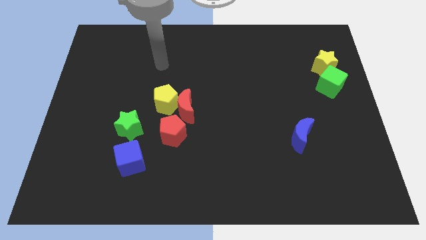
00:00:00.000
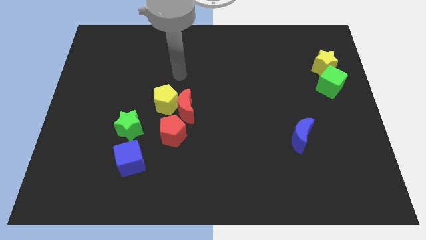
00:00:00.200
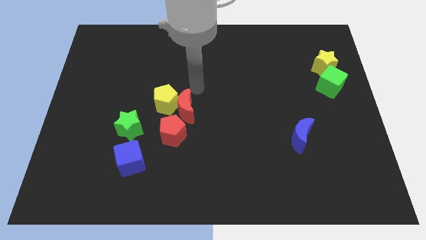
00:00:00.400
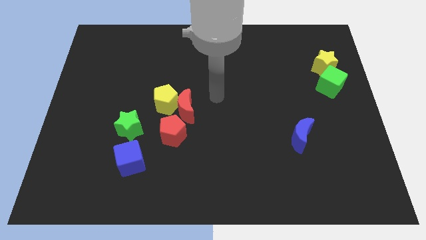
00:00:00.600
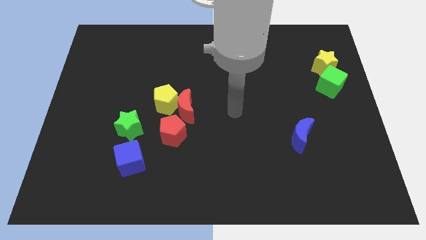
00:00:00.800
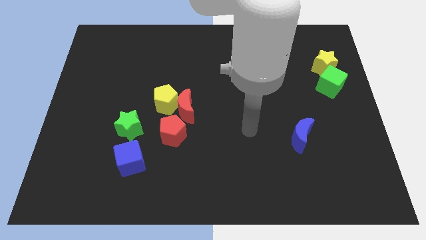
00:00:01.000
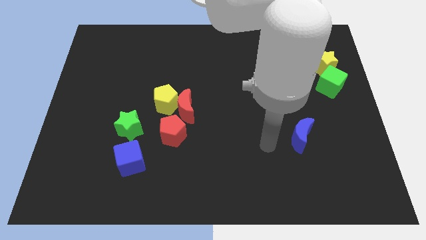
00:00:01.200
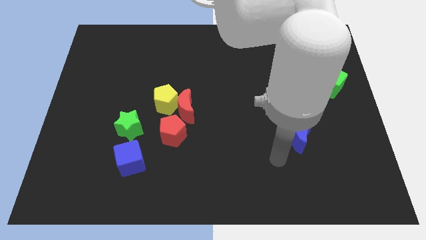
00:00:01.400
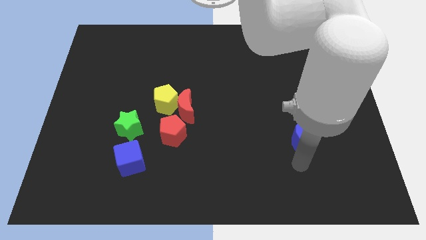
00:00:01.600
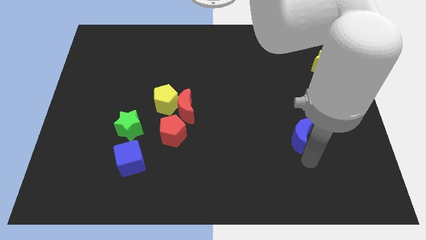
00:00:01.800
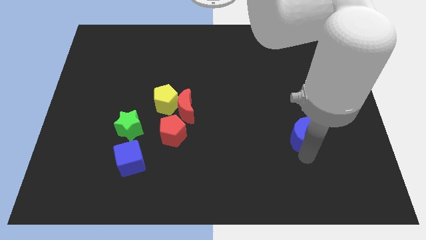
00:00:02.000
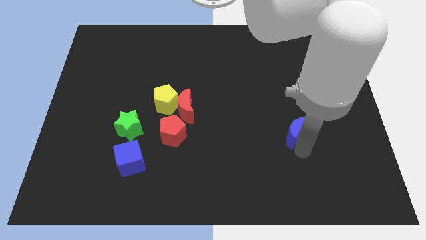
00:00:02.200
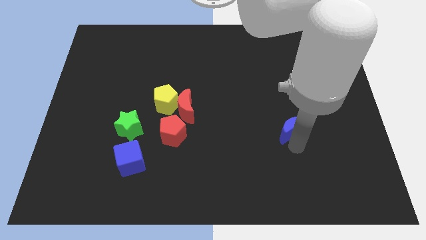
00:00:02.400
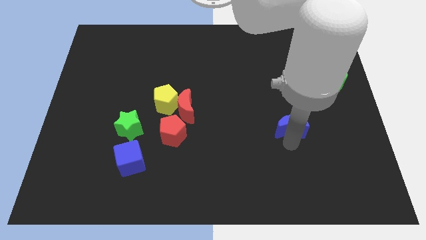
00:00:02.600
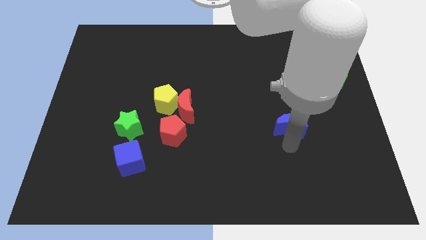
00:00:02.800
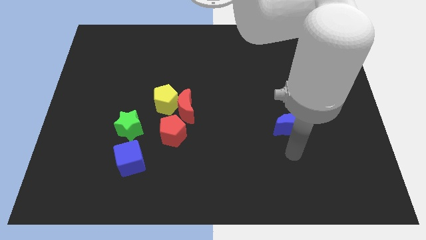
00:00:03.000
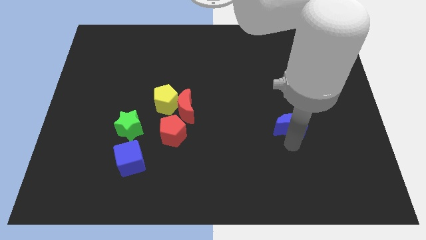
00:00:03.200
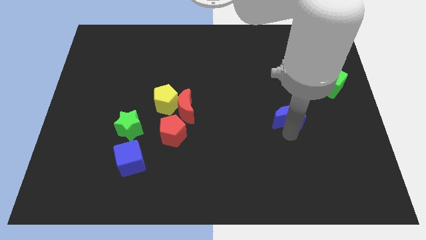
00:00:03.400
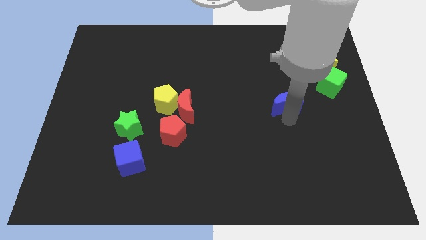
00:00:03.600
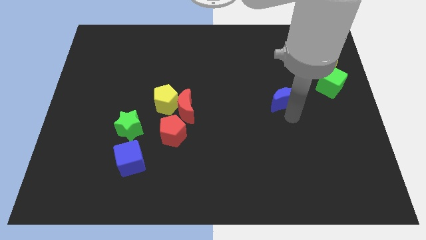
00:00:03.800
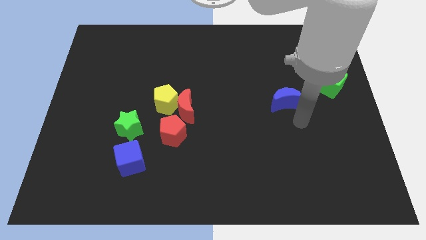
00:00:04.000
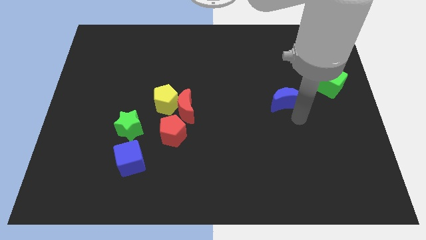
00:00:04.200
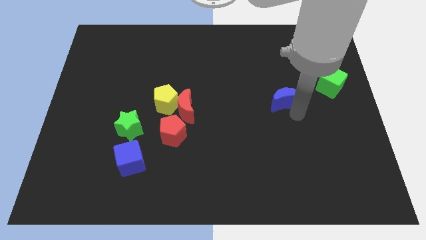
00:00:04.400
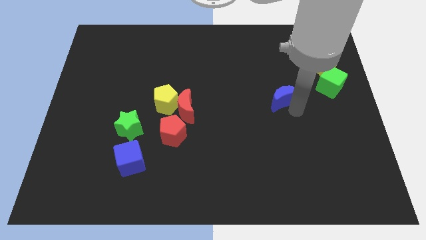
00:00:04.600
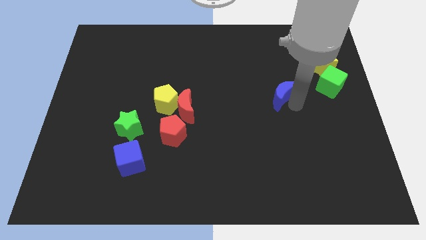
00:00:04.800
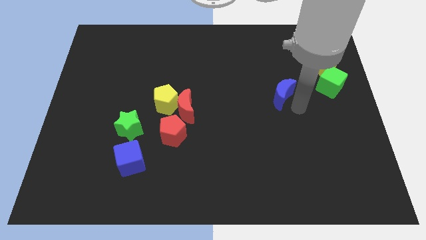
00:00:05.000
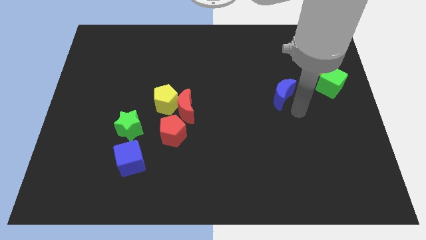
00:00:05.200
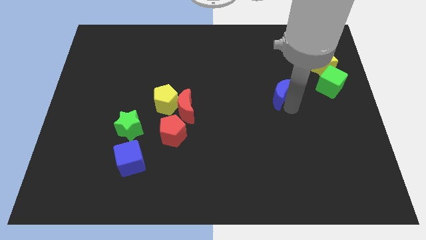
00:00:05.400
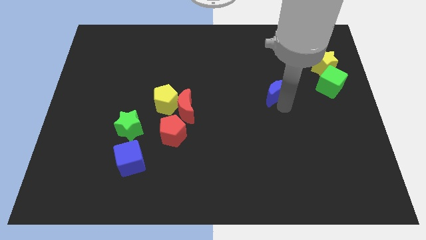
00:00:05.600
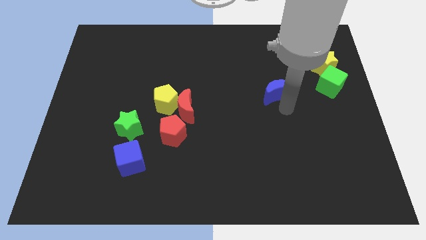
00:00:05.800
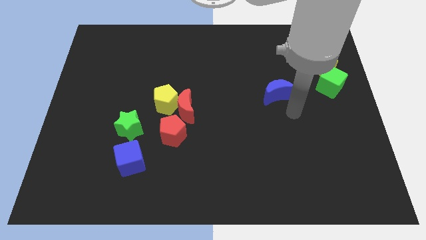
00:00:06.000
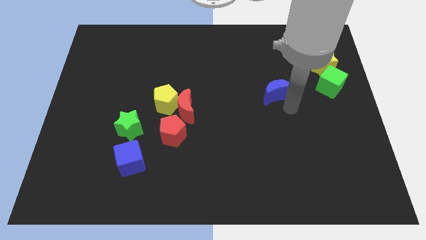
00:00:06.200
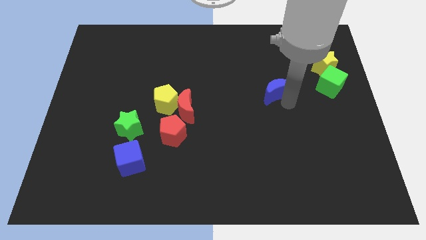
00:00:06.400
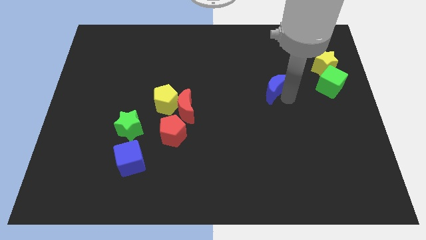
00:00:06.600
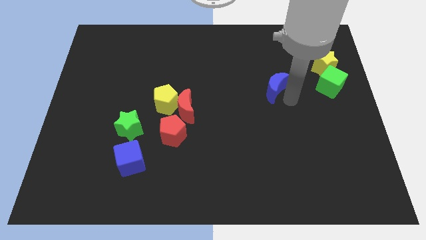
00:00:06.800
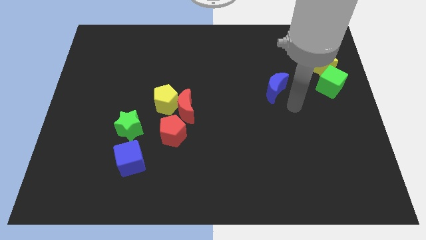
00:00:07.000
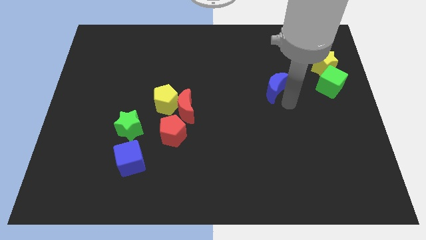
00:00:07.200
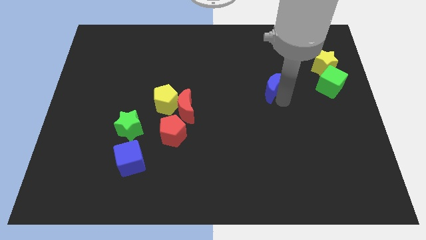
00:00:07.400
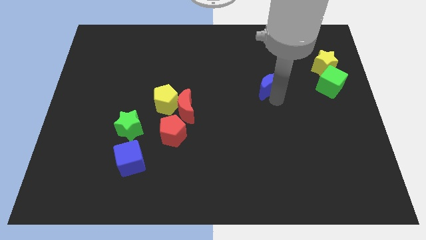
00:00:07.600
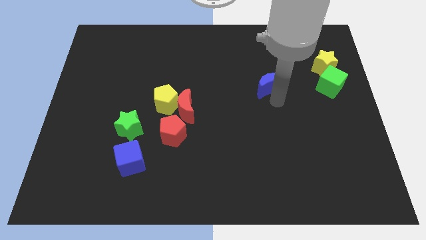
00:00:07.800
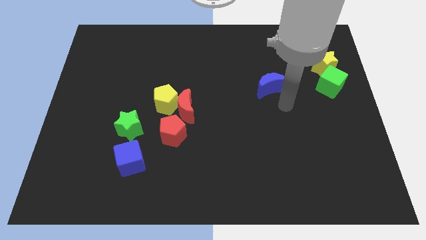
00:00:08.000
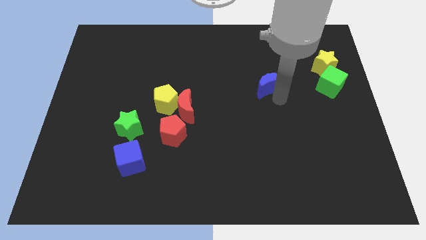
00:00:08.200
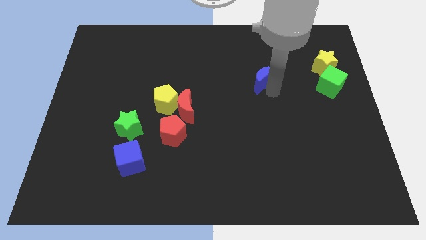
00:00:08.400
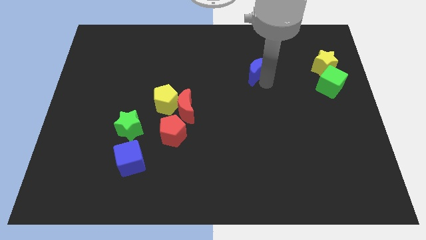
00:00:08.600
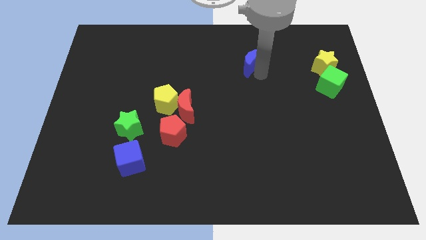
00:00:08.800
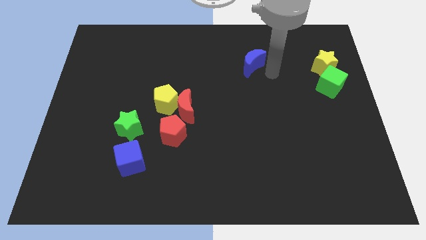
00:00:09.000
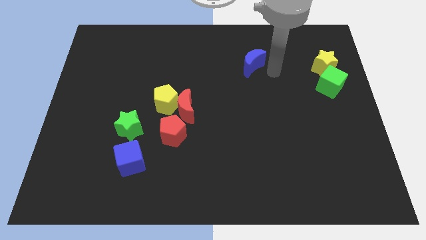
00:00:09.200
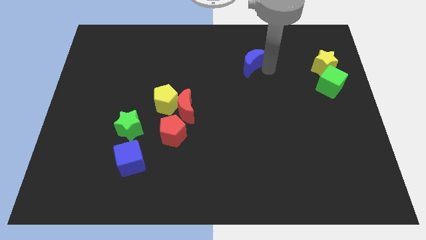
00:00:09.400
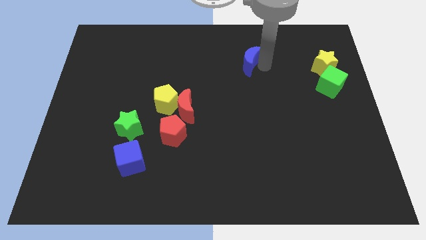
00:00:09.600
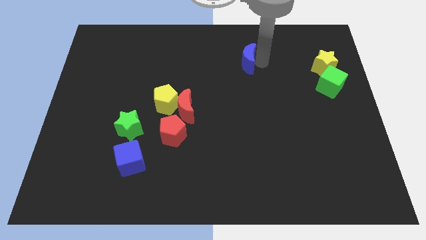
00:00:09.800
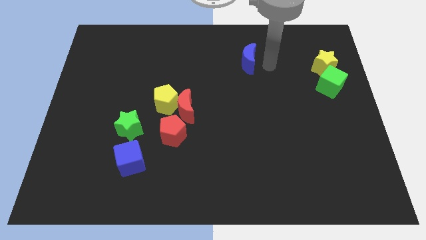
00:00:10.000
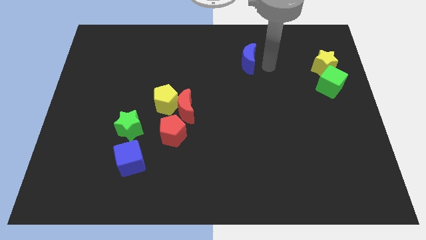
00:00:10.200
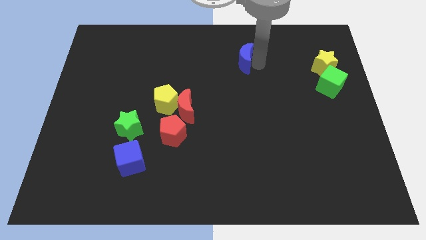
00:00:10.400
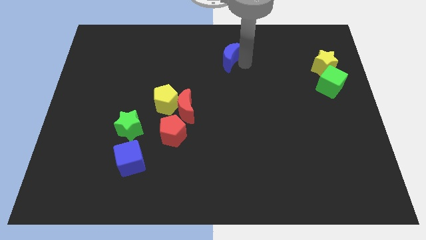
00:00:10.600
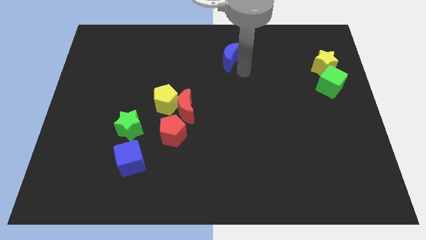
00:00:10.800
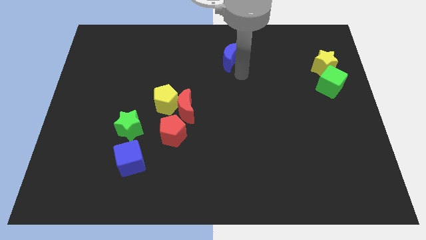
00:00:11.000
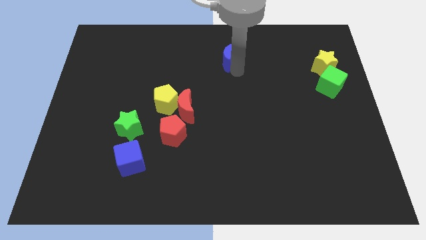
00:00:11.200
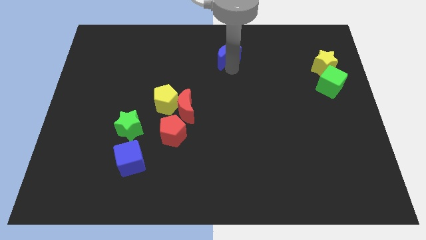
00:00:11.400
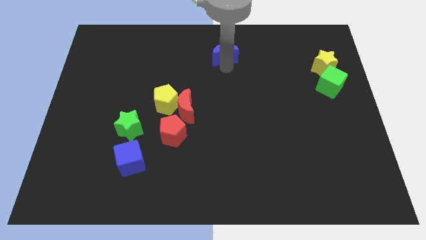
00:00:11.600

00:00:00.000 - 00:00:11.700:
move the blue moon to the top side
